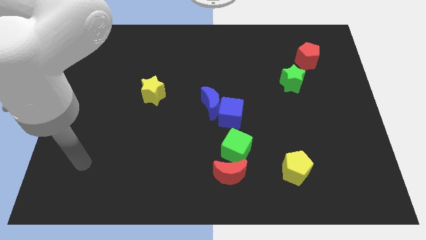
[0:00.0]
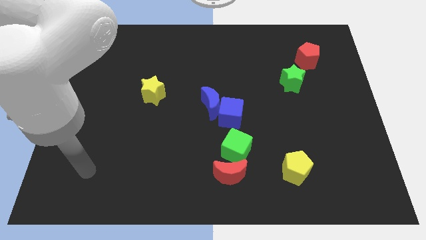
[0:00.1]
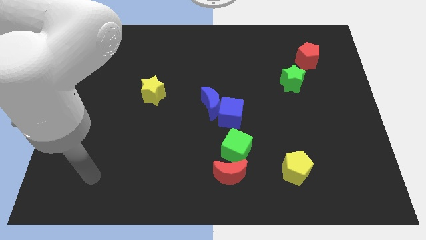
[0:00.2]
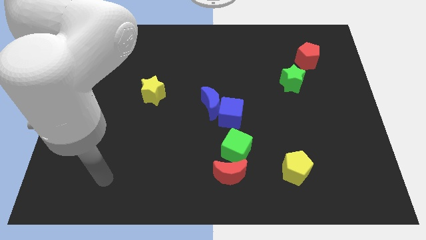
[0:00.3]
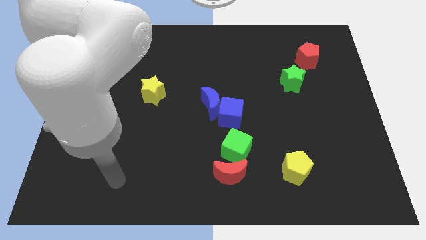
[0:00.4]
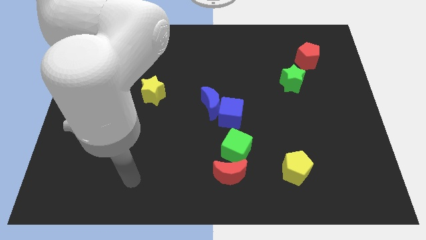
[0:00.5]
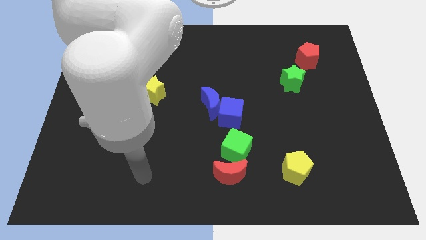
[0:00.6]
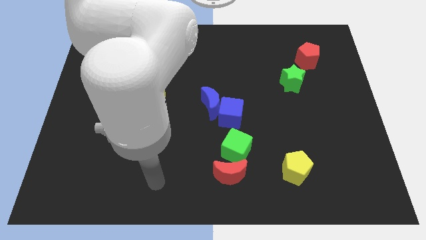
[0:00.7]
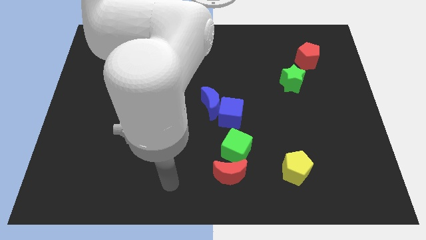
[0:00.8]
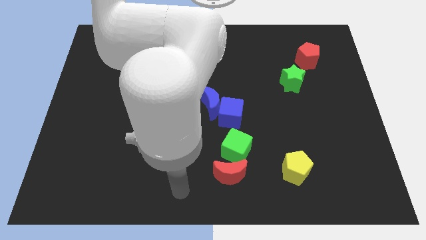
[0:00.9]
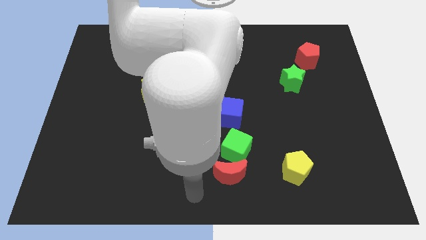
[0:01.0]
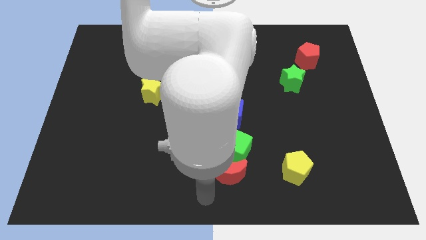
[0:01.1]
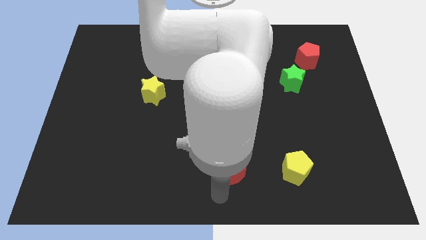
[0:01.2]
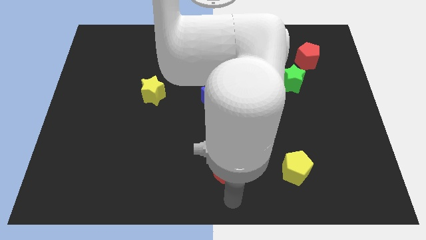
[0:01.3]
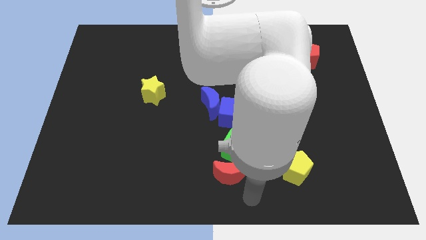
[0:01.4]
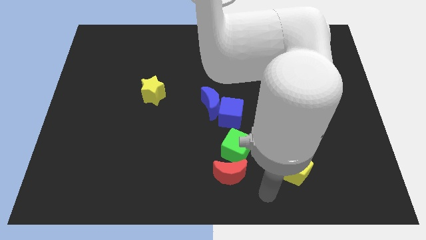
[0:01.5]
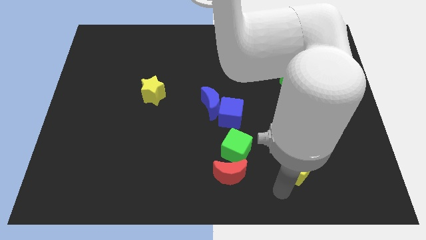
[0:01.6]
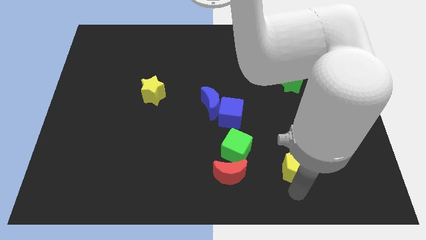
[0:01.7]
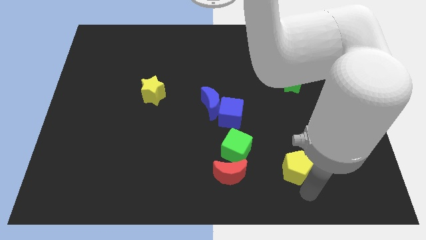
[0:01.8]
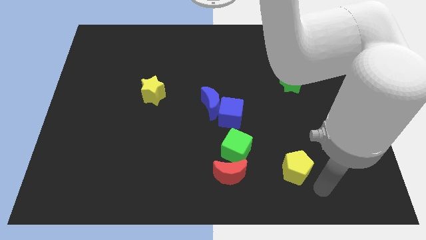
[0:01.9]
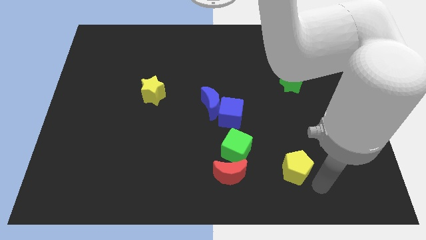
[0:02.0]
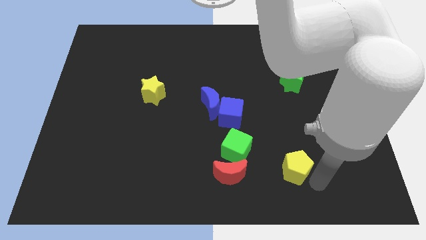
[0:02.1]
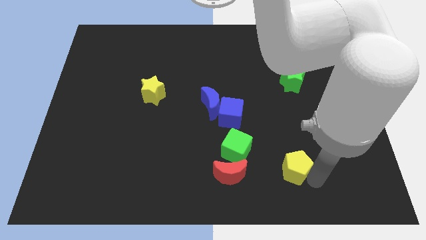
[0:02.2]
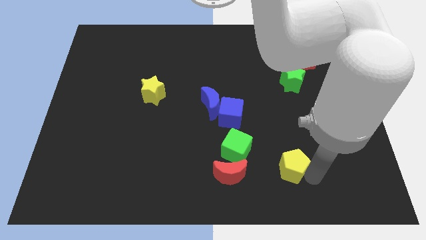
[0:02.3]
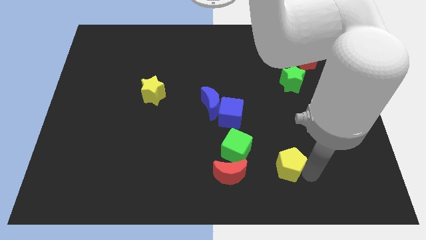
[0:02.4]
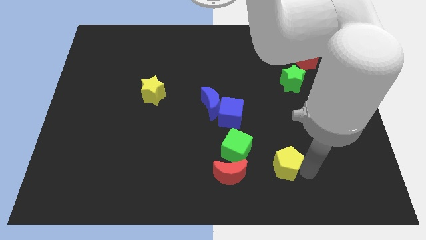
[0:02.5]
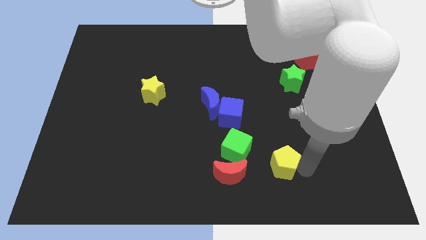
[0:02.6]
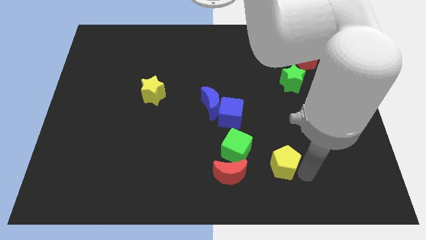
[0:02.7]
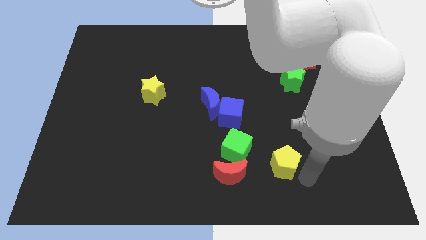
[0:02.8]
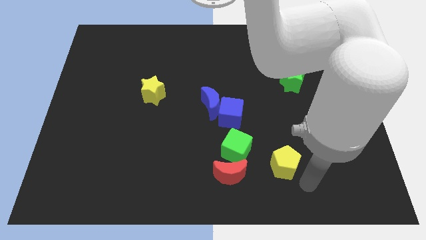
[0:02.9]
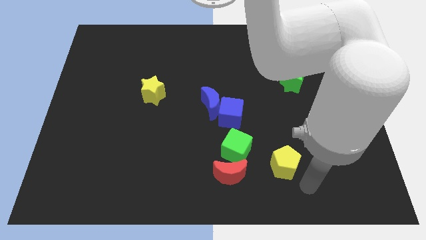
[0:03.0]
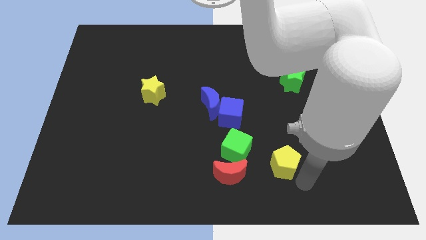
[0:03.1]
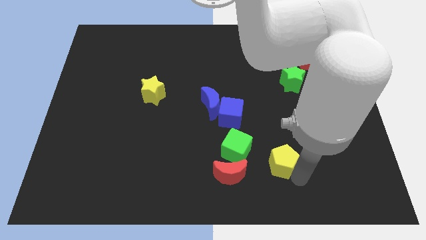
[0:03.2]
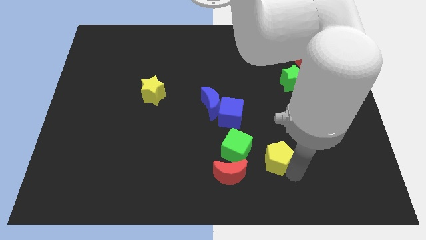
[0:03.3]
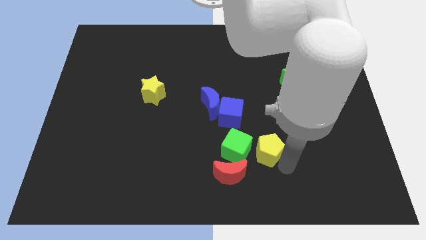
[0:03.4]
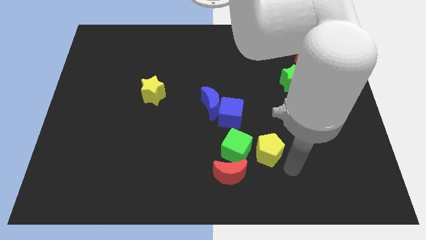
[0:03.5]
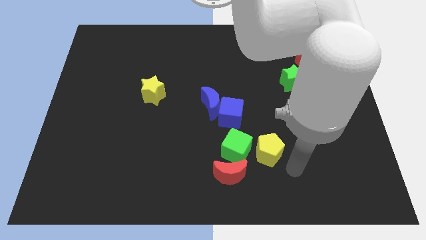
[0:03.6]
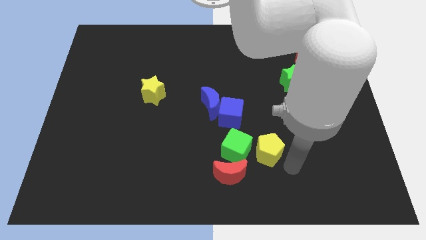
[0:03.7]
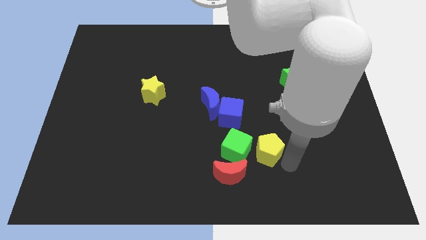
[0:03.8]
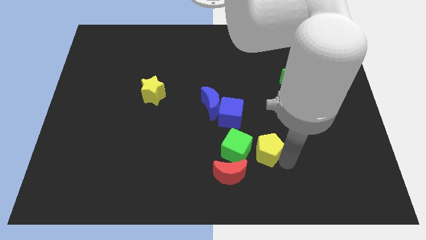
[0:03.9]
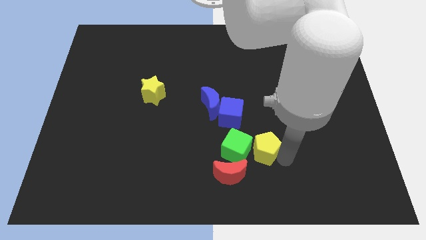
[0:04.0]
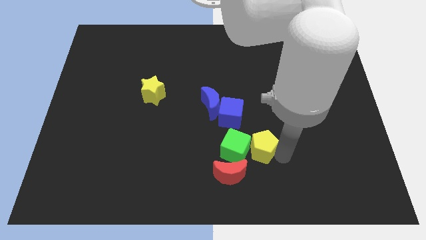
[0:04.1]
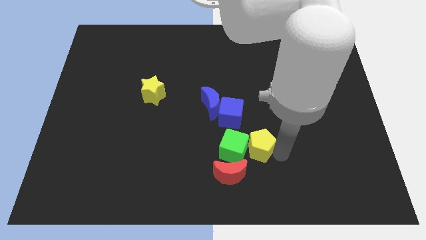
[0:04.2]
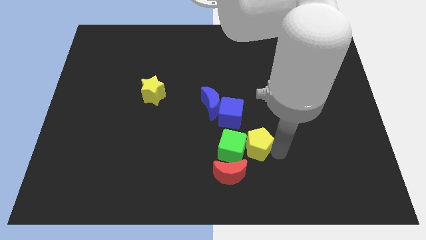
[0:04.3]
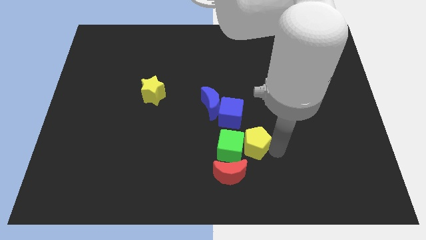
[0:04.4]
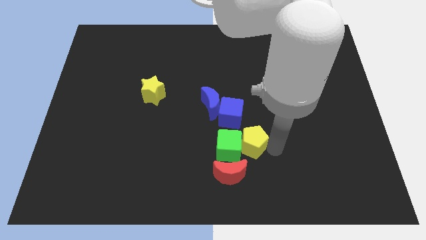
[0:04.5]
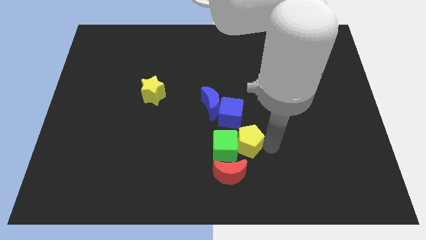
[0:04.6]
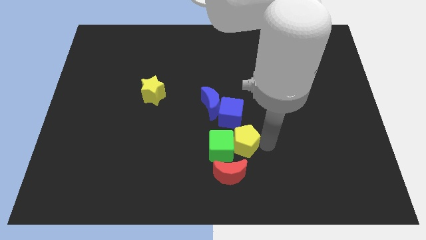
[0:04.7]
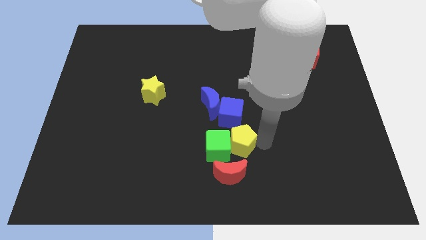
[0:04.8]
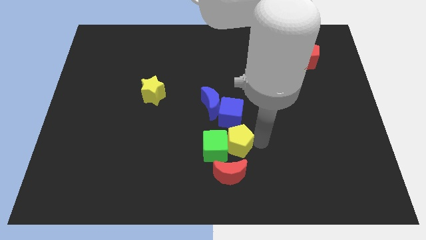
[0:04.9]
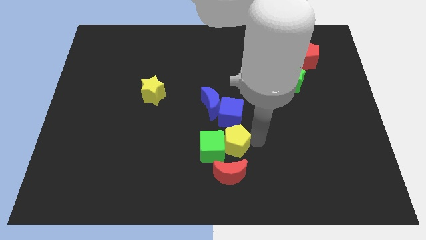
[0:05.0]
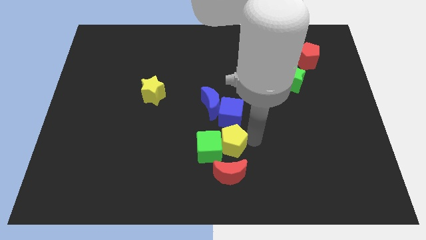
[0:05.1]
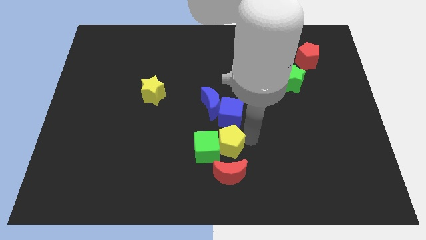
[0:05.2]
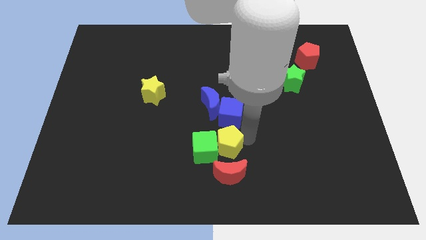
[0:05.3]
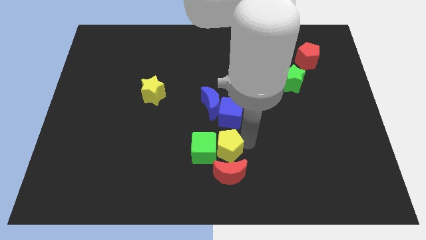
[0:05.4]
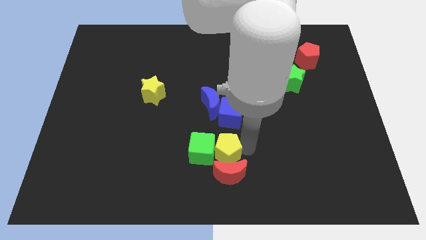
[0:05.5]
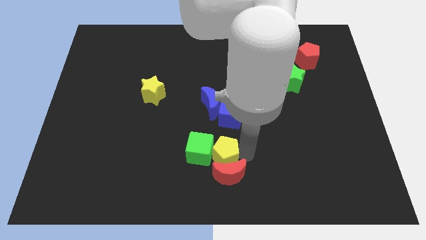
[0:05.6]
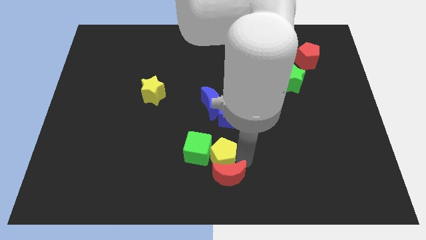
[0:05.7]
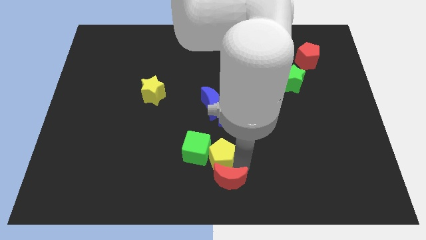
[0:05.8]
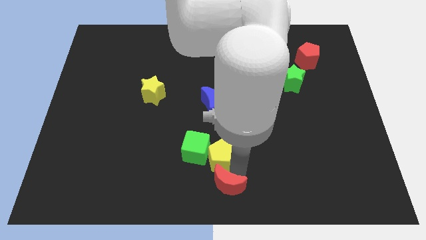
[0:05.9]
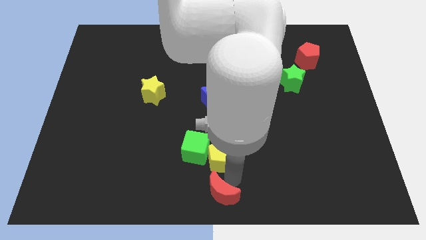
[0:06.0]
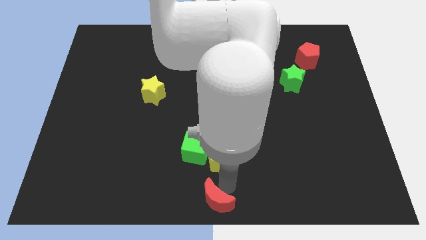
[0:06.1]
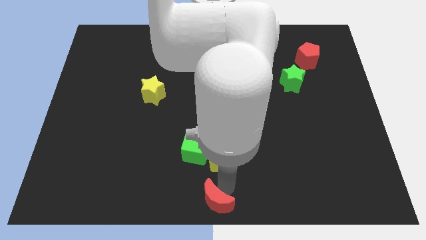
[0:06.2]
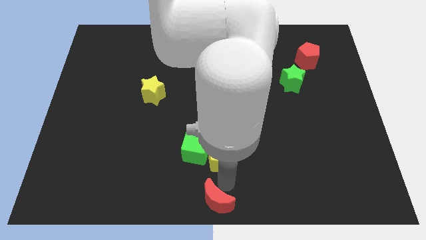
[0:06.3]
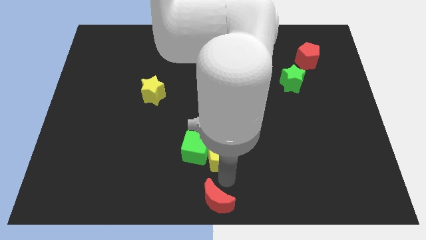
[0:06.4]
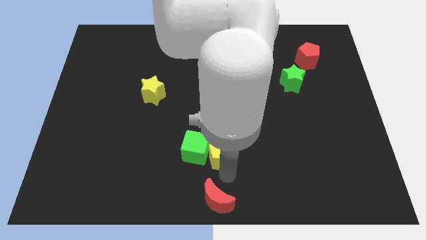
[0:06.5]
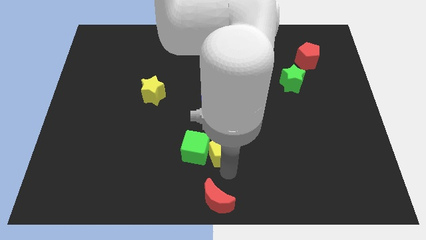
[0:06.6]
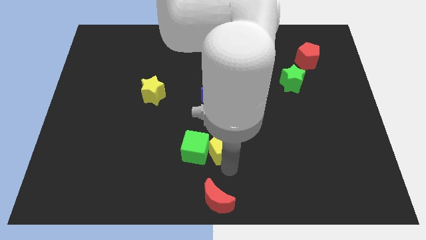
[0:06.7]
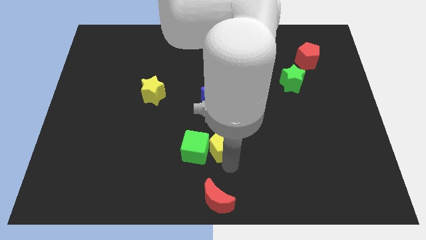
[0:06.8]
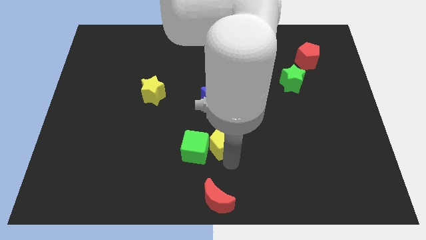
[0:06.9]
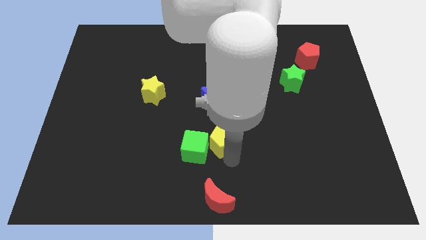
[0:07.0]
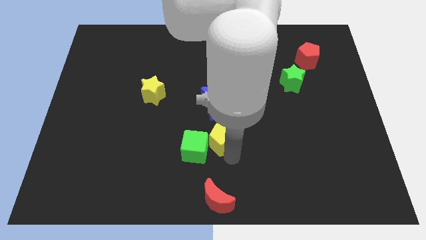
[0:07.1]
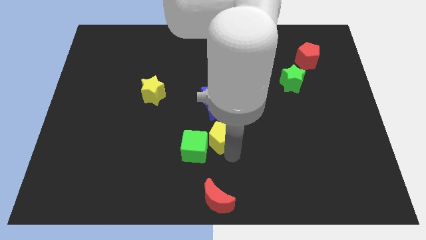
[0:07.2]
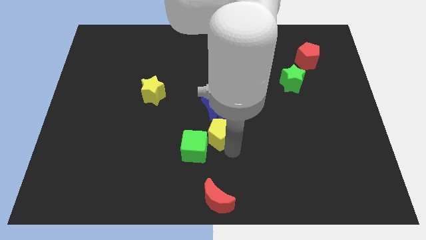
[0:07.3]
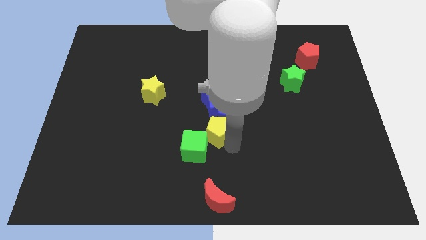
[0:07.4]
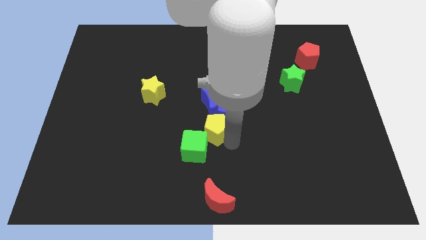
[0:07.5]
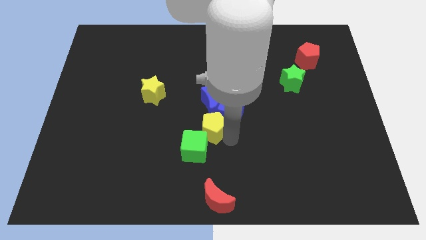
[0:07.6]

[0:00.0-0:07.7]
put the yellow pentagon to the left side of the blue cube
